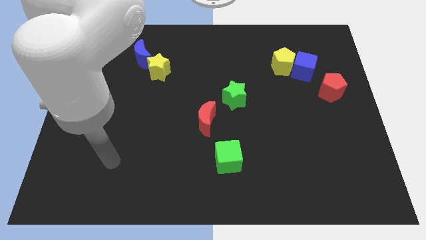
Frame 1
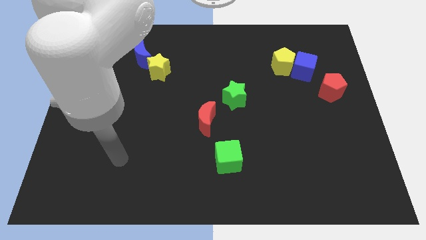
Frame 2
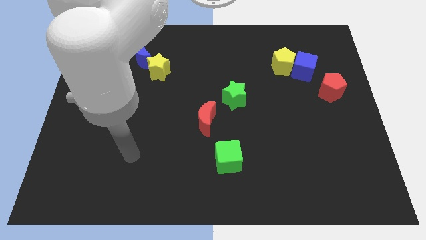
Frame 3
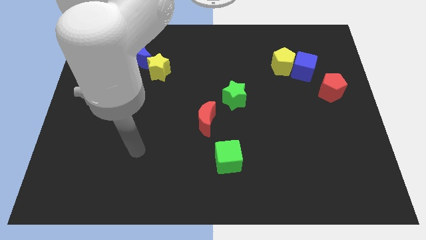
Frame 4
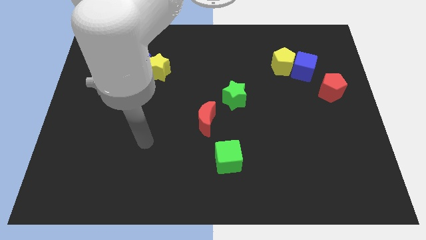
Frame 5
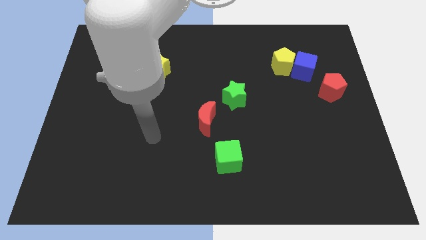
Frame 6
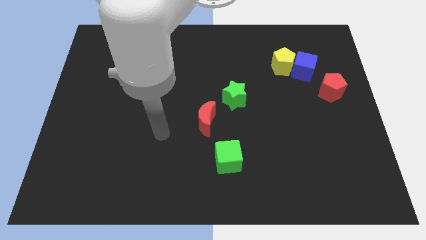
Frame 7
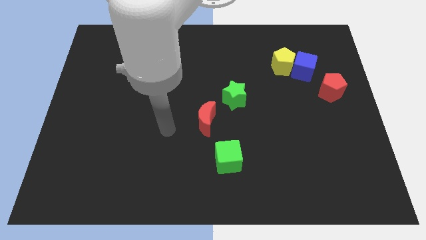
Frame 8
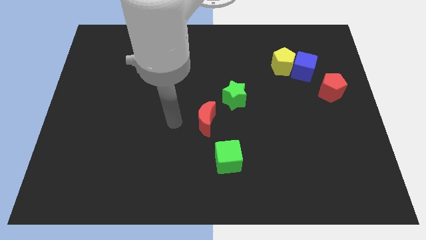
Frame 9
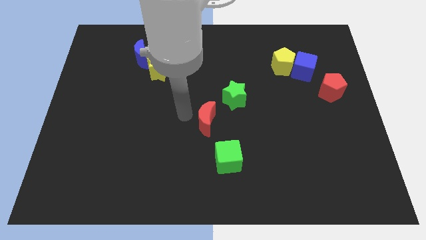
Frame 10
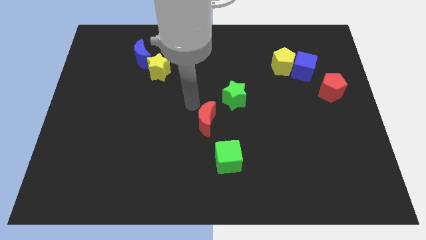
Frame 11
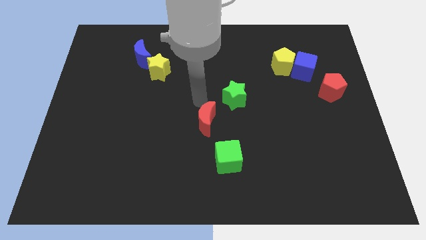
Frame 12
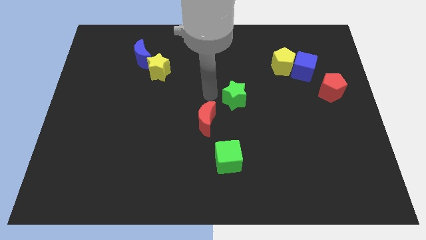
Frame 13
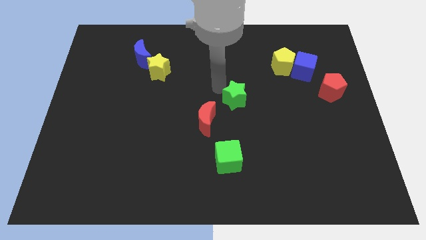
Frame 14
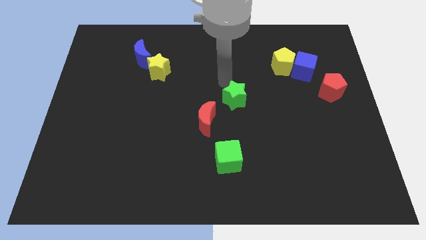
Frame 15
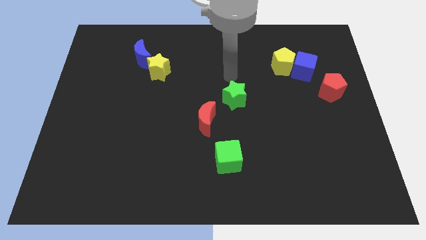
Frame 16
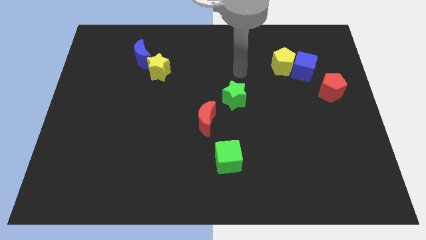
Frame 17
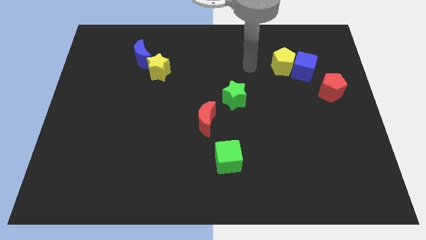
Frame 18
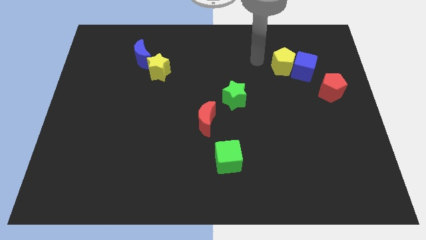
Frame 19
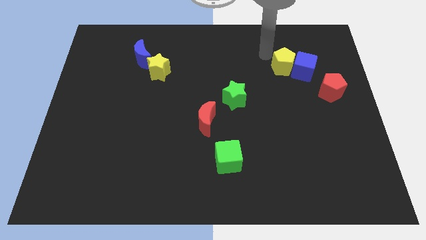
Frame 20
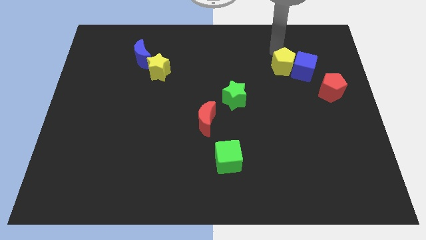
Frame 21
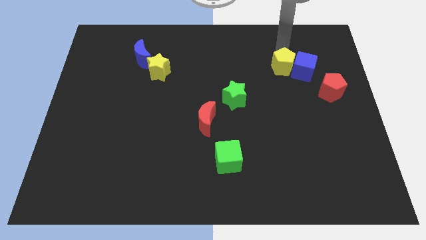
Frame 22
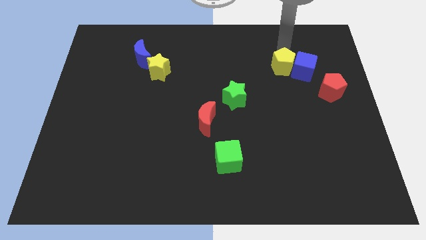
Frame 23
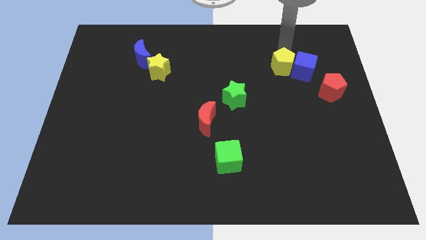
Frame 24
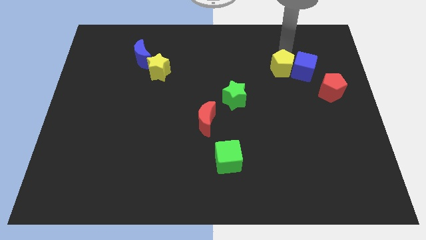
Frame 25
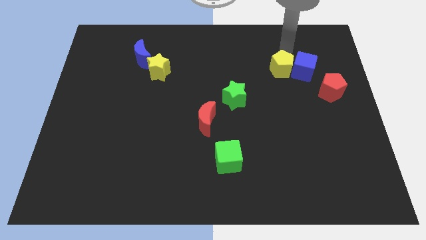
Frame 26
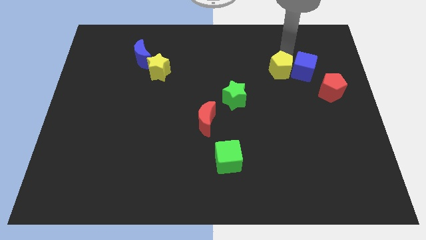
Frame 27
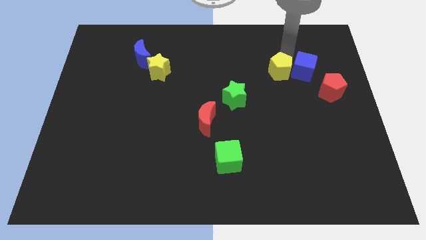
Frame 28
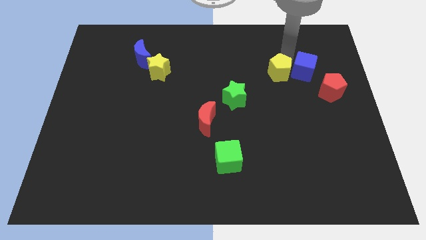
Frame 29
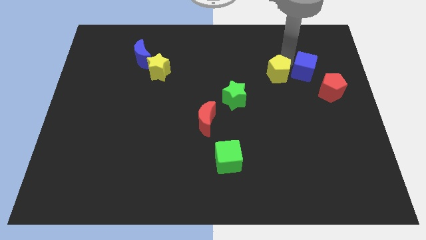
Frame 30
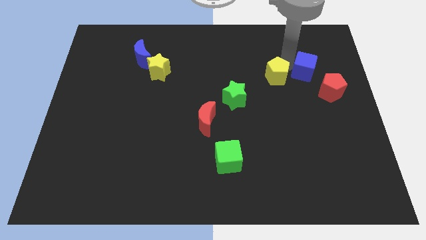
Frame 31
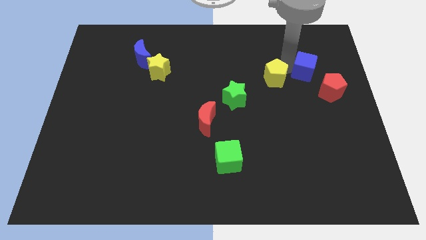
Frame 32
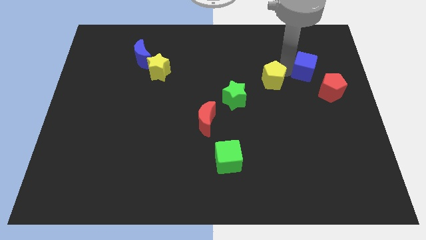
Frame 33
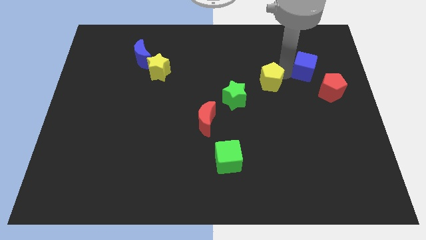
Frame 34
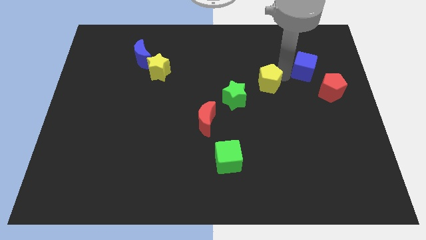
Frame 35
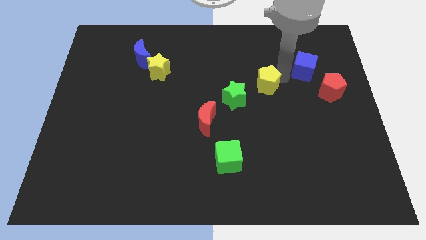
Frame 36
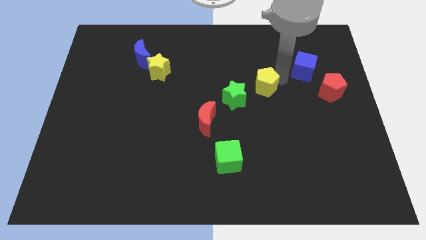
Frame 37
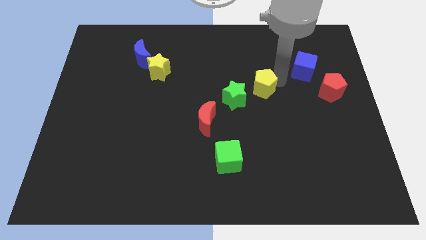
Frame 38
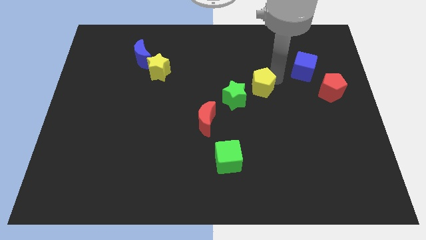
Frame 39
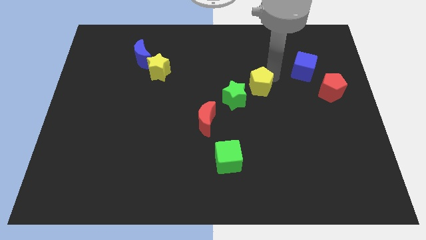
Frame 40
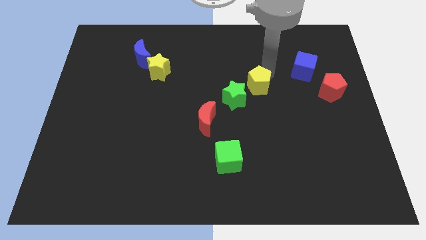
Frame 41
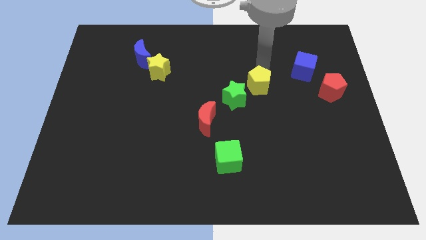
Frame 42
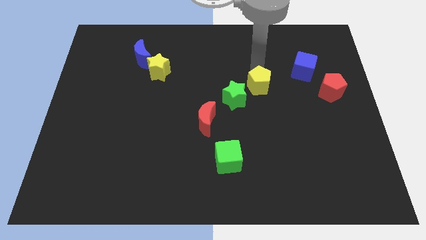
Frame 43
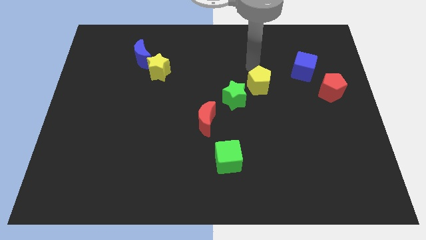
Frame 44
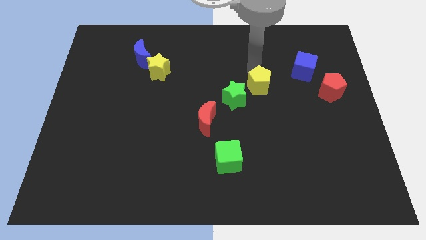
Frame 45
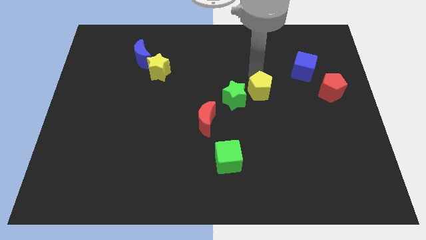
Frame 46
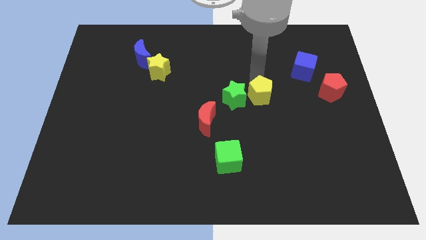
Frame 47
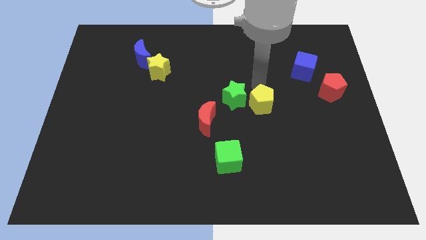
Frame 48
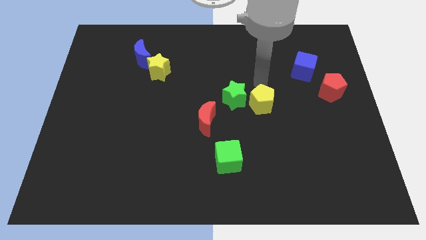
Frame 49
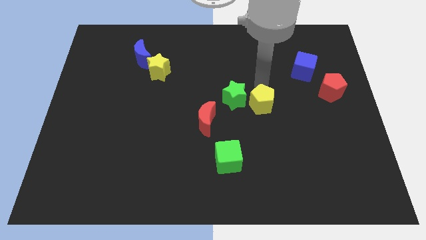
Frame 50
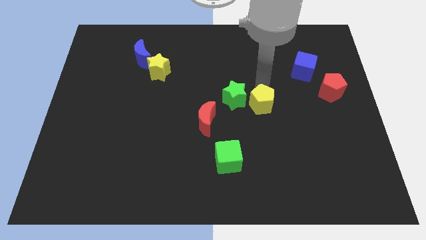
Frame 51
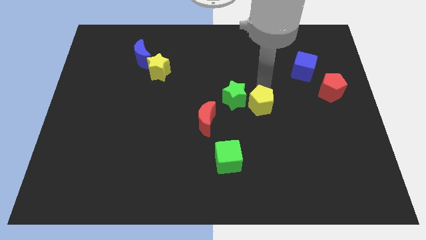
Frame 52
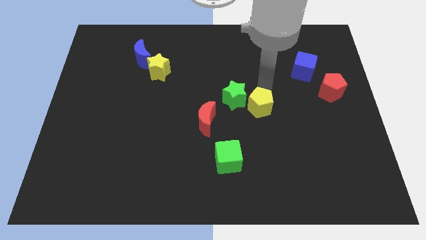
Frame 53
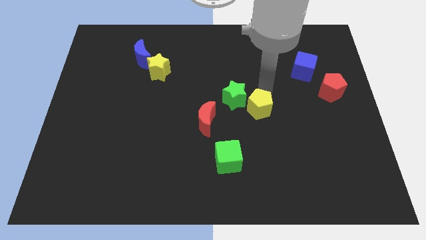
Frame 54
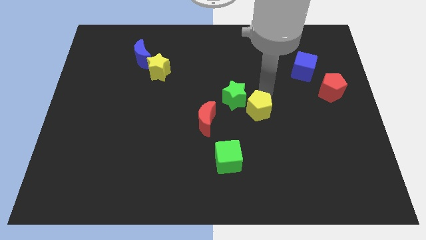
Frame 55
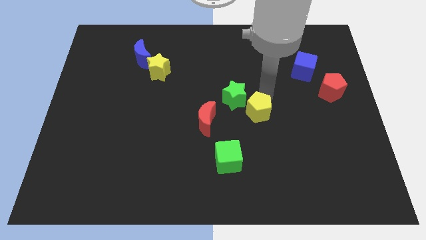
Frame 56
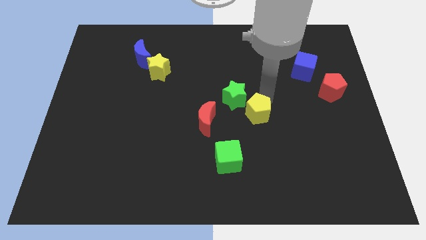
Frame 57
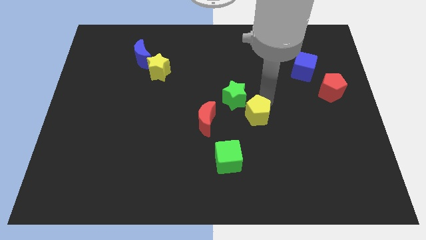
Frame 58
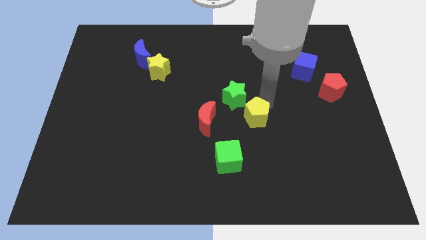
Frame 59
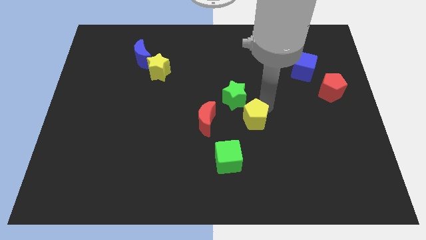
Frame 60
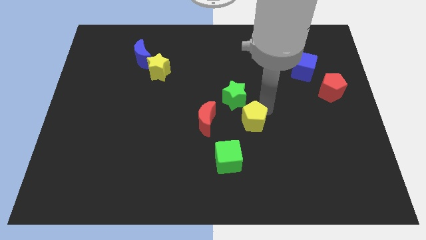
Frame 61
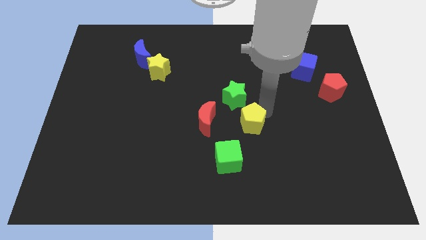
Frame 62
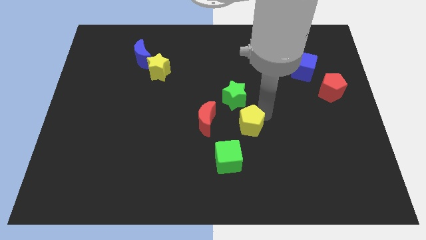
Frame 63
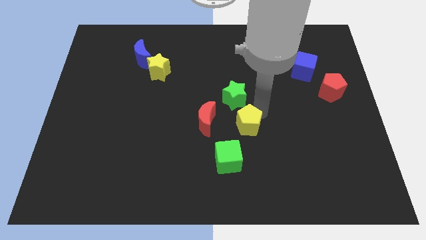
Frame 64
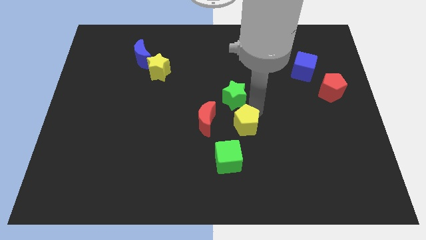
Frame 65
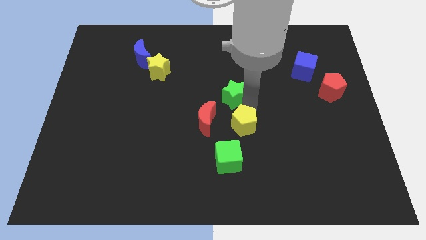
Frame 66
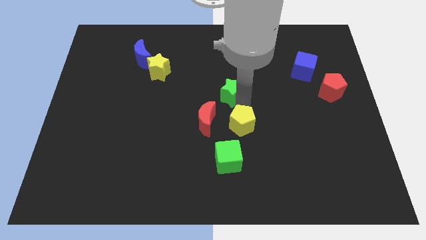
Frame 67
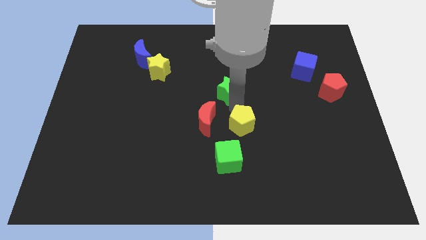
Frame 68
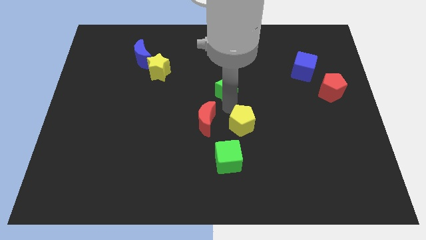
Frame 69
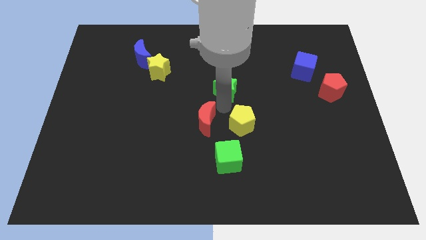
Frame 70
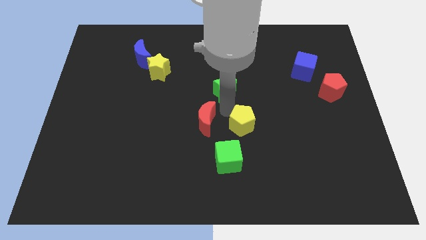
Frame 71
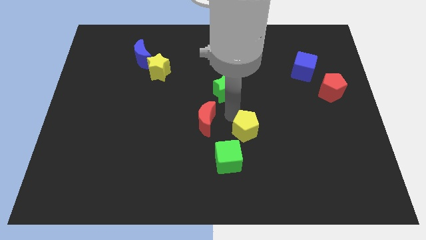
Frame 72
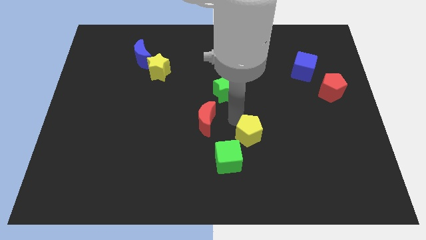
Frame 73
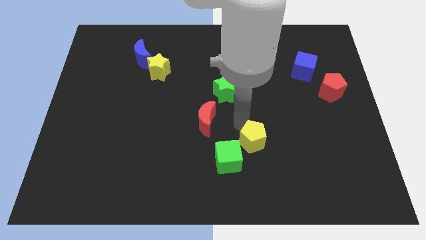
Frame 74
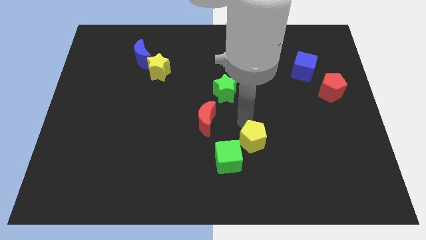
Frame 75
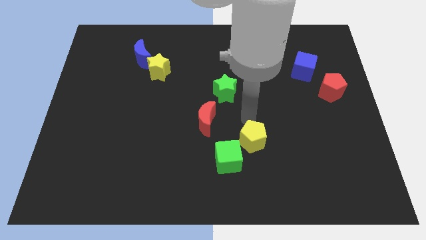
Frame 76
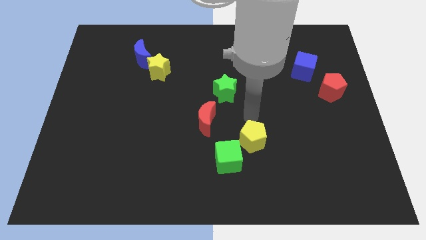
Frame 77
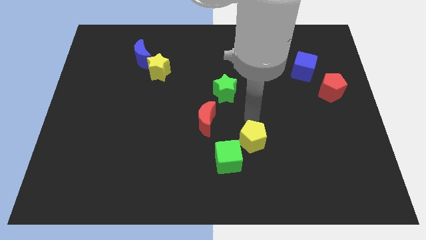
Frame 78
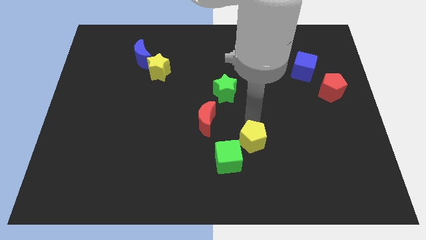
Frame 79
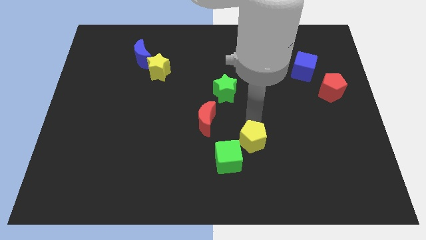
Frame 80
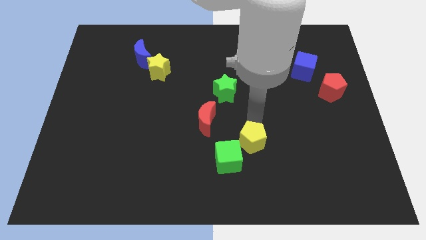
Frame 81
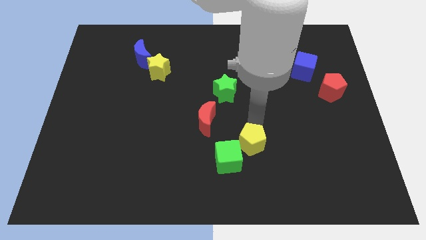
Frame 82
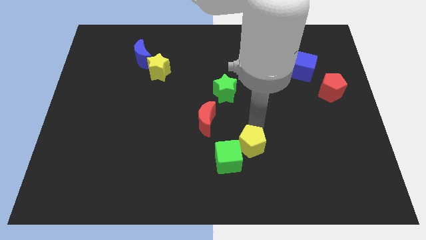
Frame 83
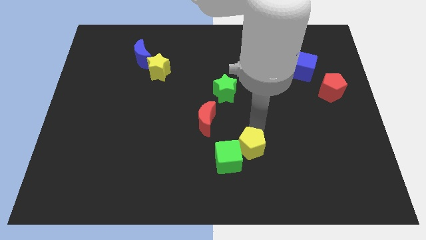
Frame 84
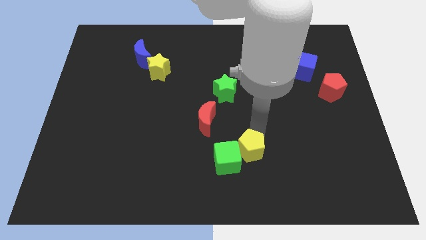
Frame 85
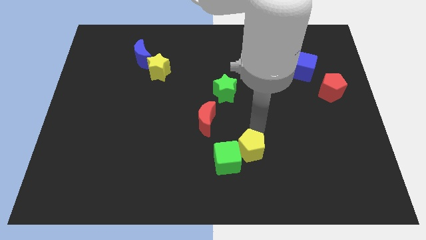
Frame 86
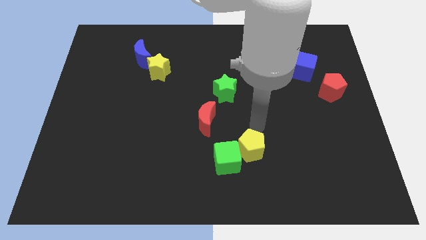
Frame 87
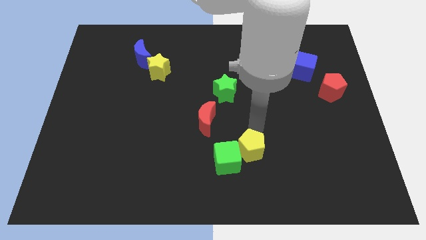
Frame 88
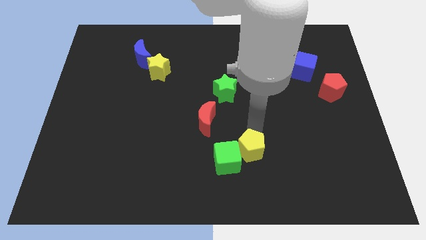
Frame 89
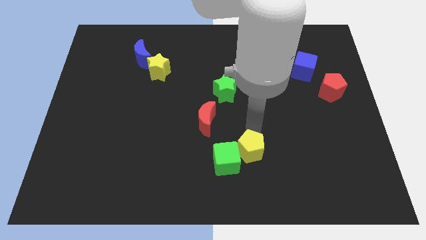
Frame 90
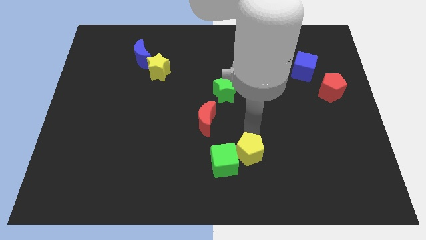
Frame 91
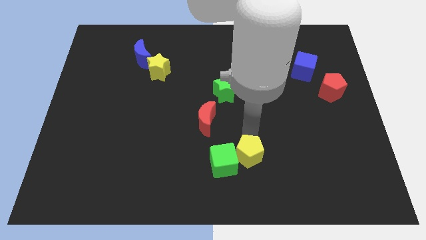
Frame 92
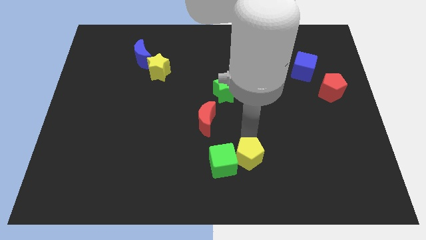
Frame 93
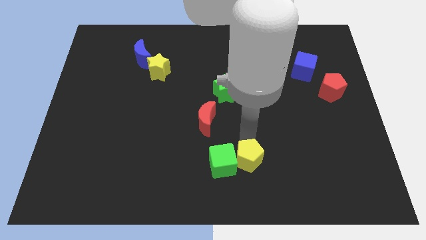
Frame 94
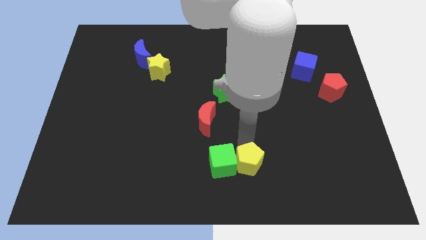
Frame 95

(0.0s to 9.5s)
move the yellow pentagon to the bottom
